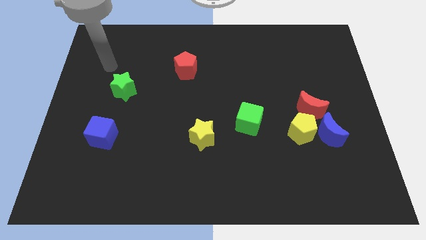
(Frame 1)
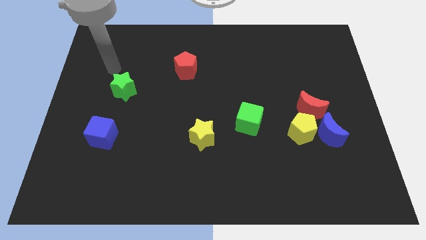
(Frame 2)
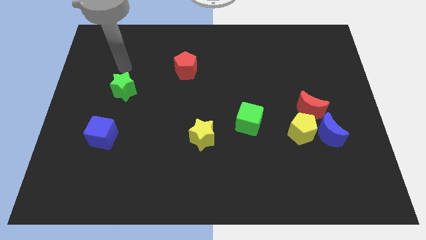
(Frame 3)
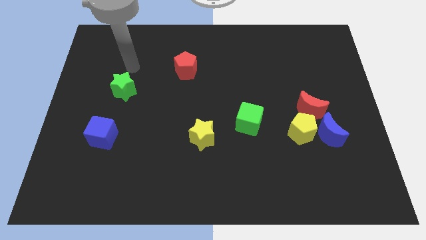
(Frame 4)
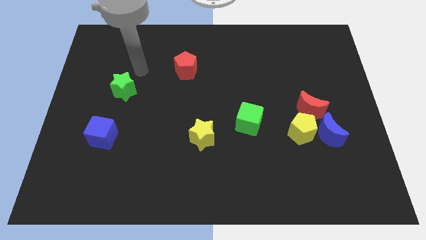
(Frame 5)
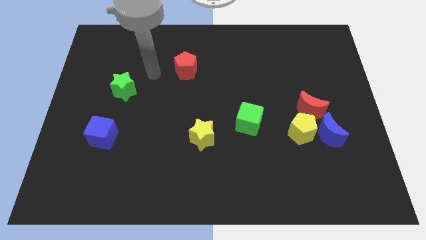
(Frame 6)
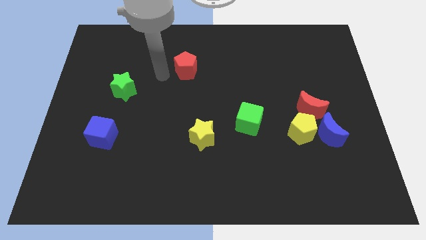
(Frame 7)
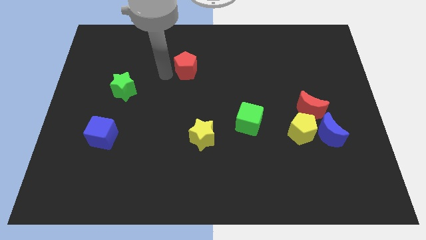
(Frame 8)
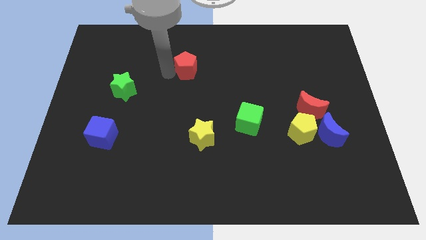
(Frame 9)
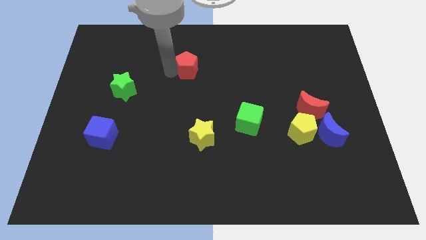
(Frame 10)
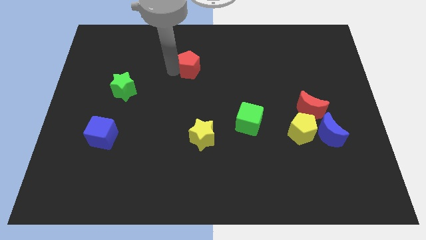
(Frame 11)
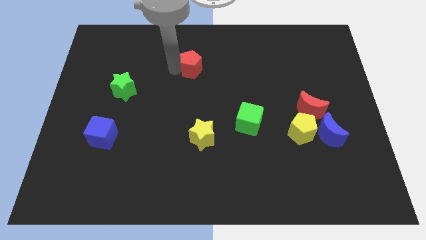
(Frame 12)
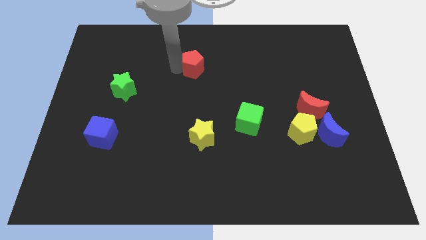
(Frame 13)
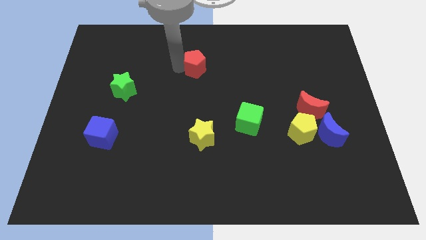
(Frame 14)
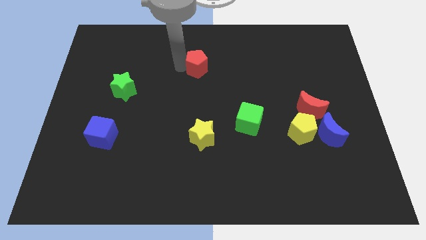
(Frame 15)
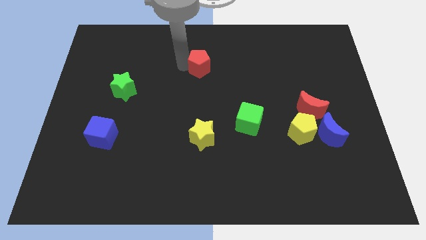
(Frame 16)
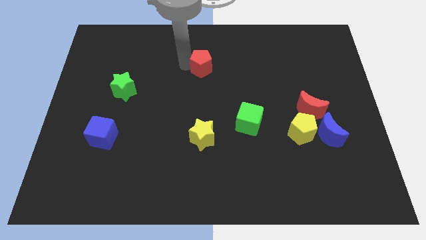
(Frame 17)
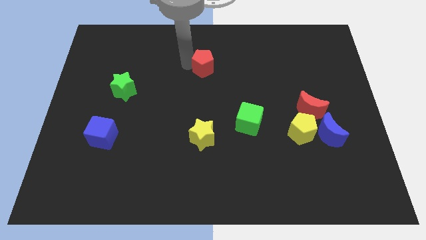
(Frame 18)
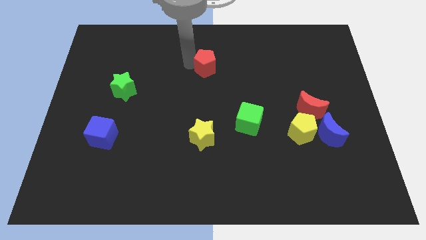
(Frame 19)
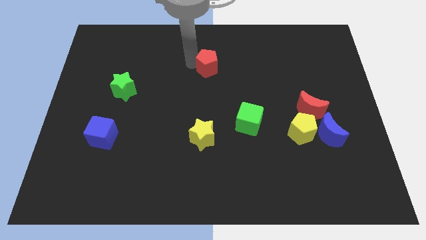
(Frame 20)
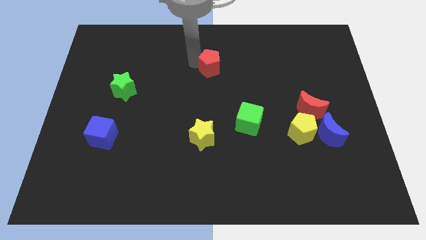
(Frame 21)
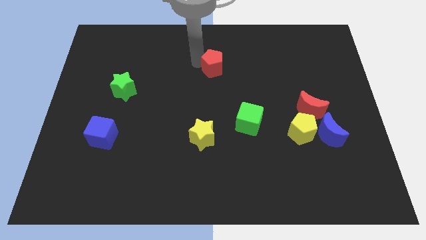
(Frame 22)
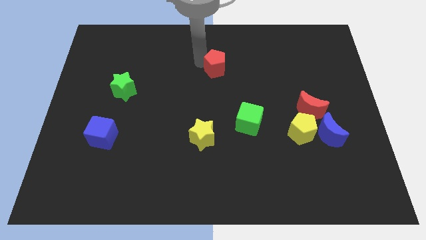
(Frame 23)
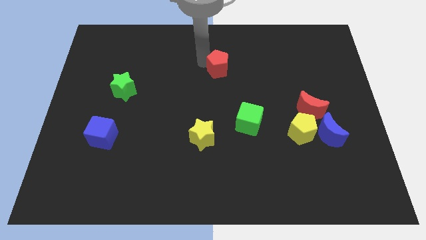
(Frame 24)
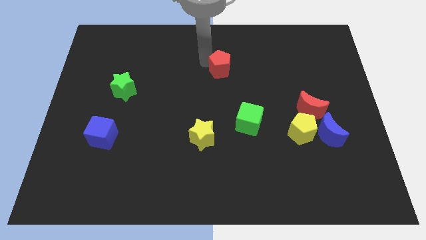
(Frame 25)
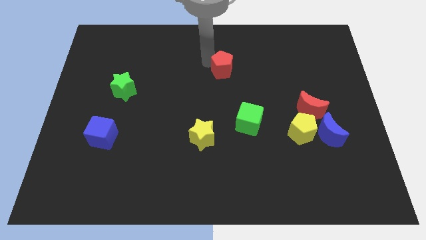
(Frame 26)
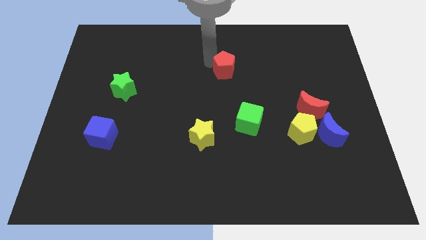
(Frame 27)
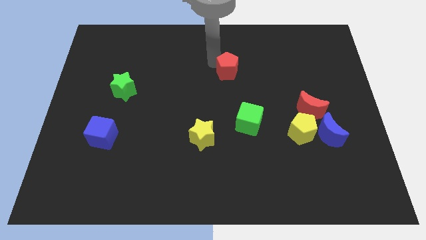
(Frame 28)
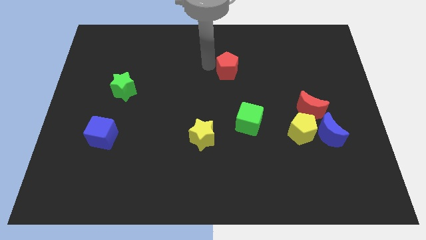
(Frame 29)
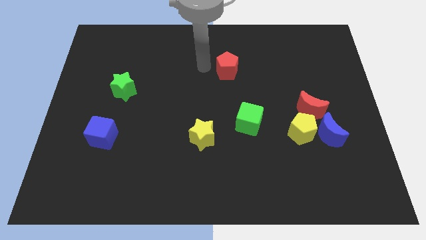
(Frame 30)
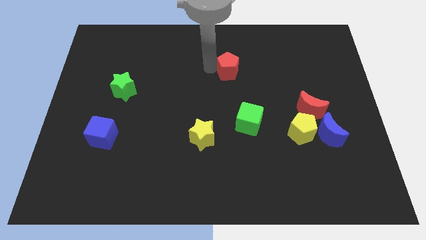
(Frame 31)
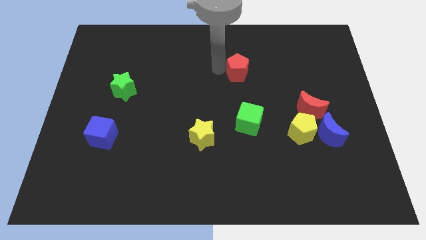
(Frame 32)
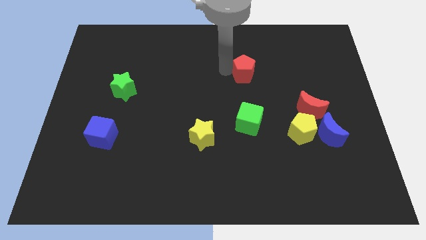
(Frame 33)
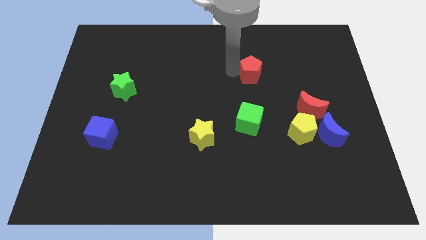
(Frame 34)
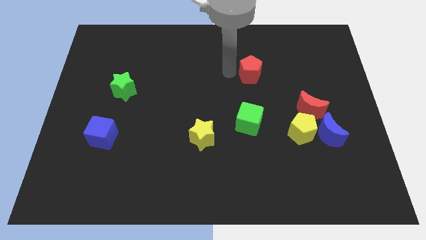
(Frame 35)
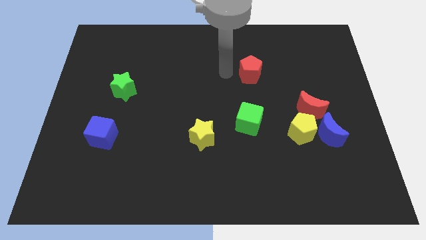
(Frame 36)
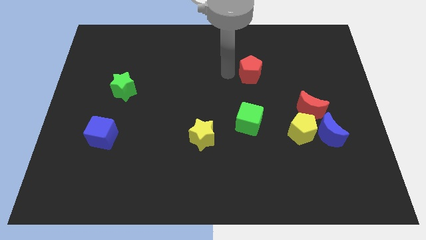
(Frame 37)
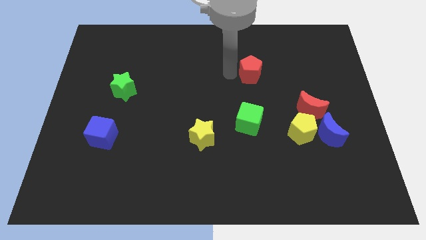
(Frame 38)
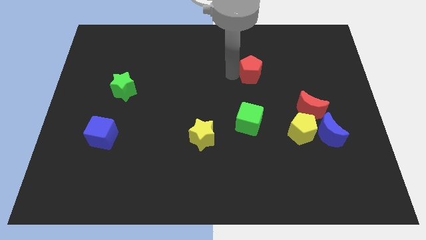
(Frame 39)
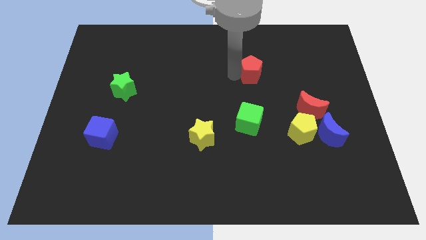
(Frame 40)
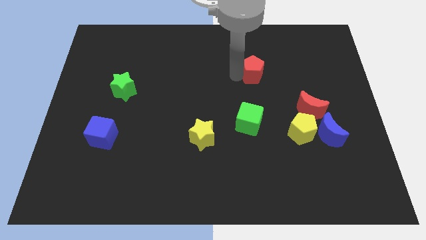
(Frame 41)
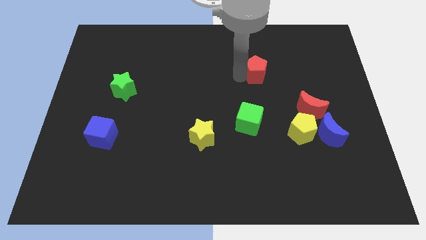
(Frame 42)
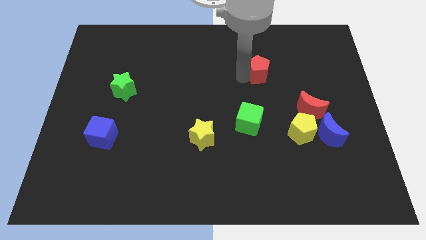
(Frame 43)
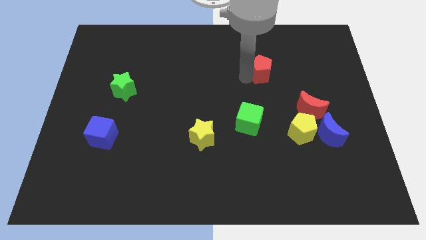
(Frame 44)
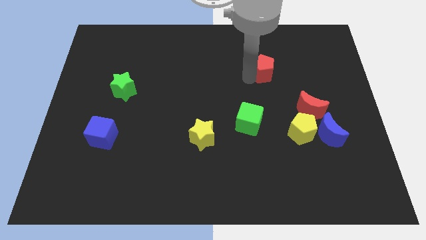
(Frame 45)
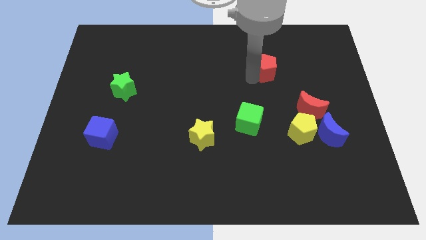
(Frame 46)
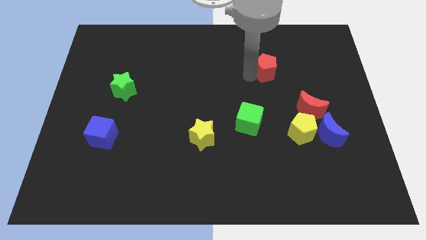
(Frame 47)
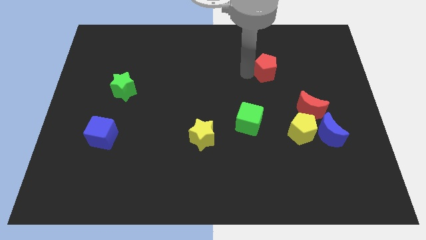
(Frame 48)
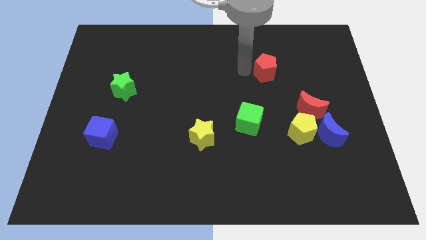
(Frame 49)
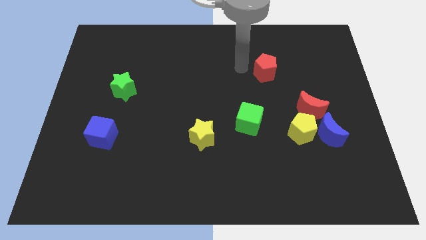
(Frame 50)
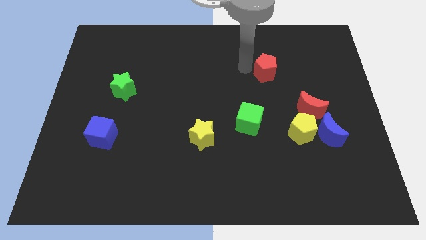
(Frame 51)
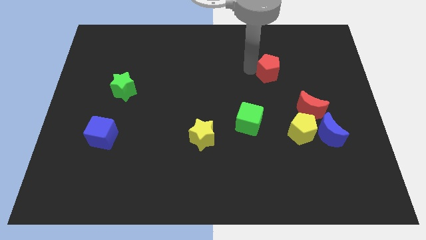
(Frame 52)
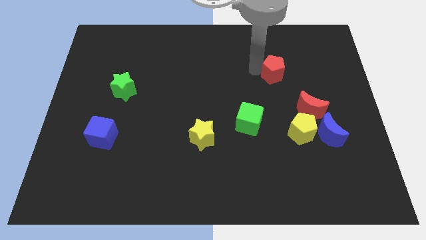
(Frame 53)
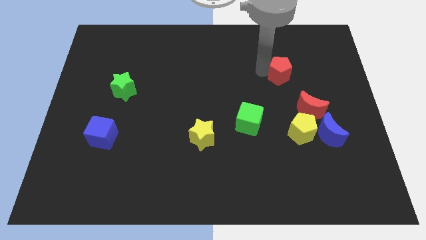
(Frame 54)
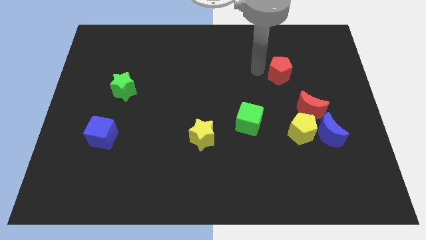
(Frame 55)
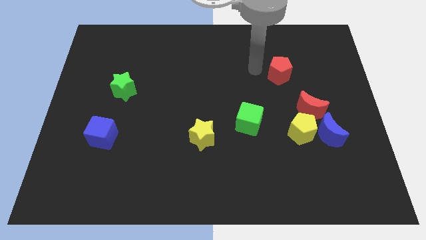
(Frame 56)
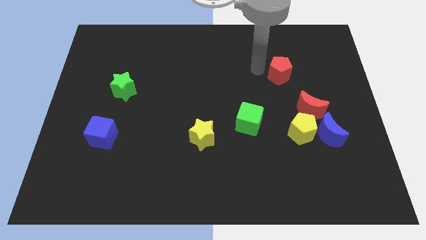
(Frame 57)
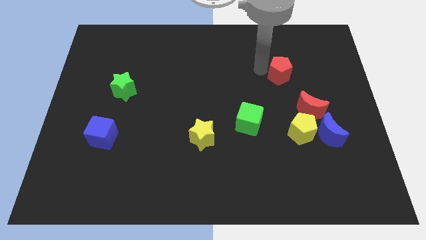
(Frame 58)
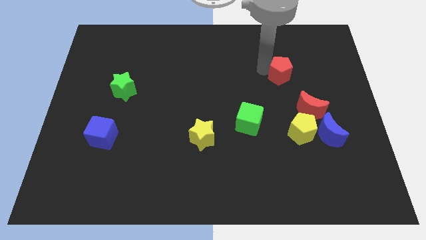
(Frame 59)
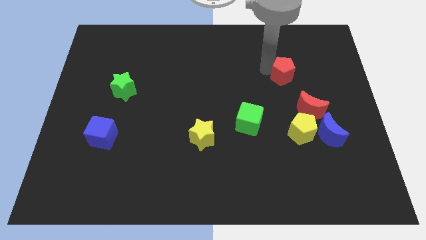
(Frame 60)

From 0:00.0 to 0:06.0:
move the red pentagon to the top of the red moon

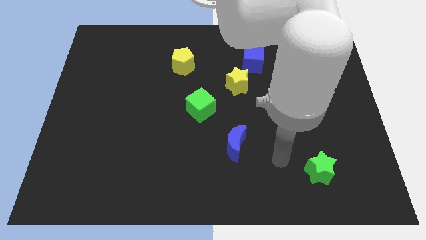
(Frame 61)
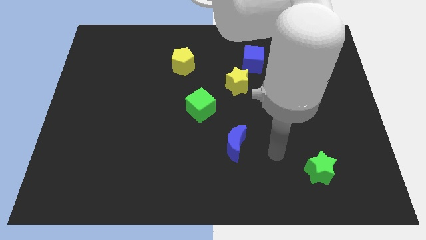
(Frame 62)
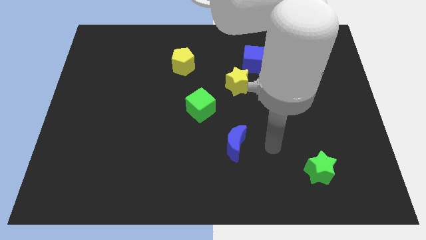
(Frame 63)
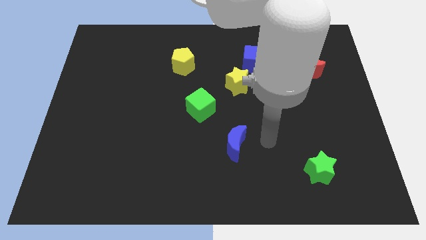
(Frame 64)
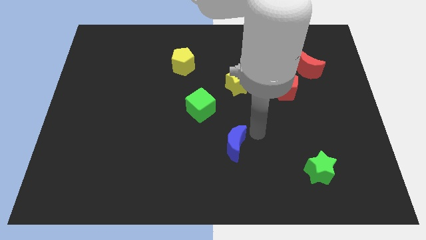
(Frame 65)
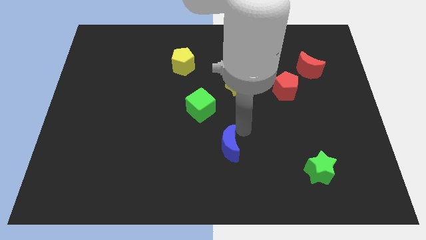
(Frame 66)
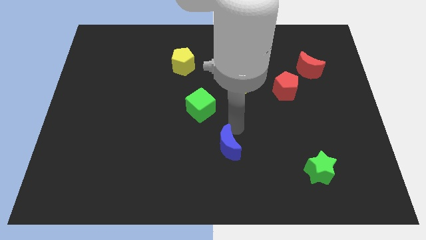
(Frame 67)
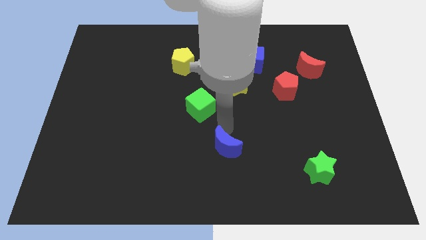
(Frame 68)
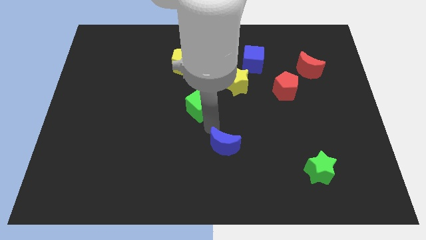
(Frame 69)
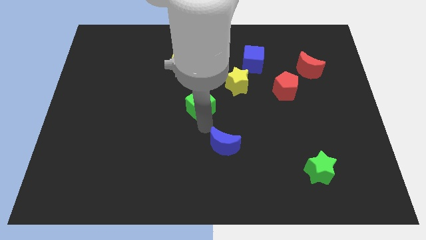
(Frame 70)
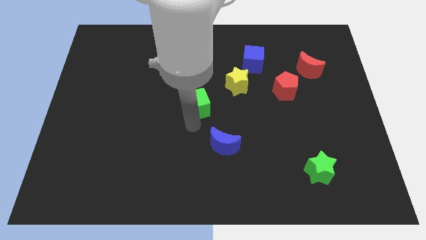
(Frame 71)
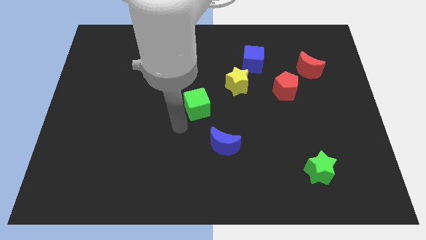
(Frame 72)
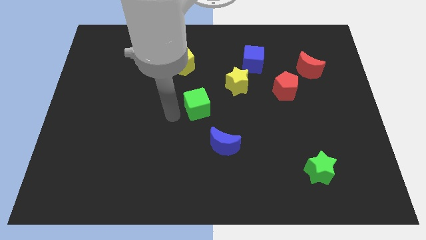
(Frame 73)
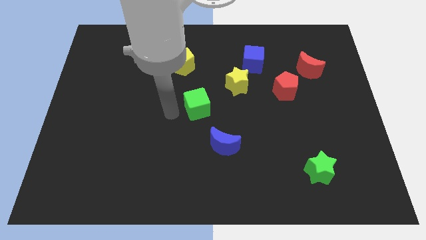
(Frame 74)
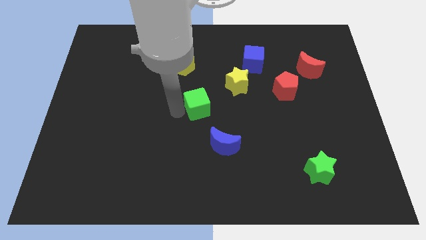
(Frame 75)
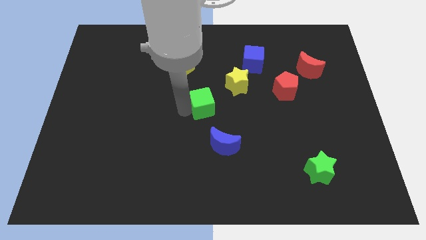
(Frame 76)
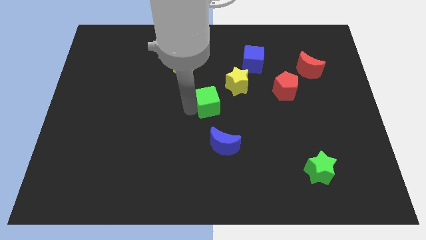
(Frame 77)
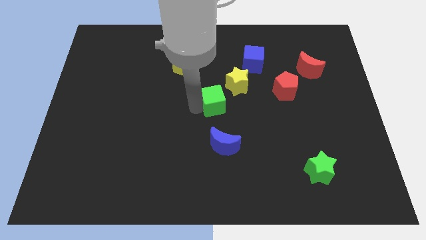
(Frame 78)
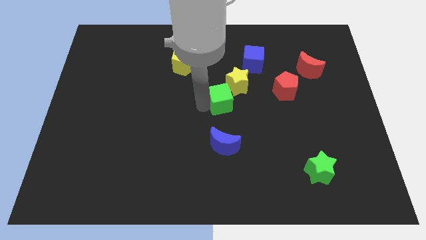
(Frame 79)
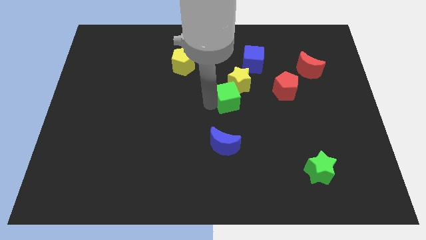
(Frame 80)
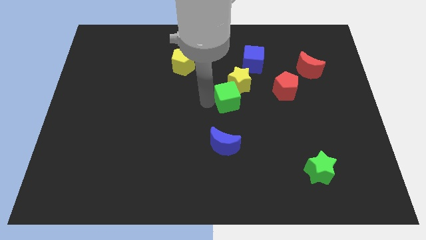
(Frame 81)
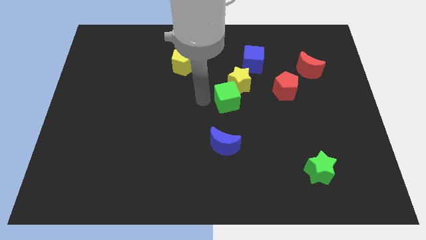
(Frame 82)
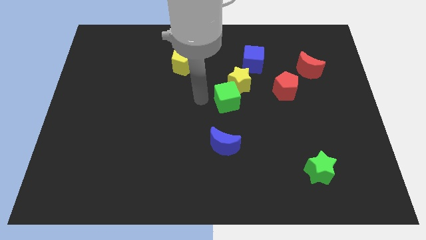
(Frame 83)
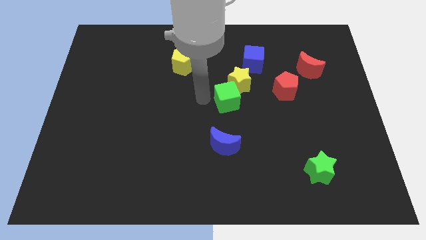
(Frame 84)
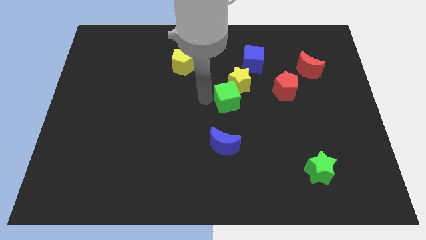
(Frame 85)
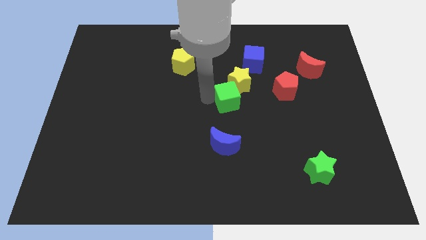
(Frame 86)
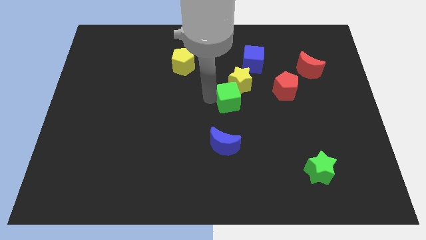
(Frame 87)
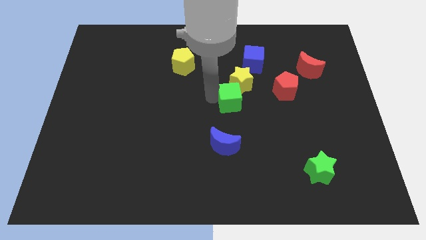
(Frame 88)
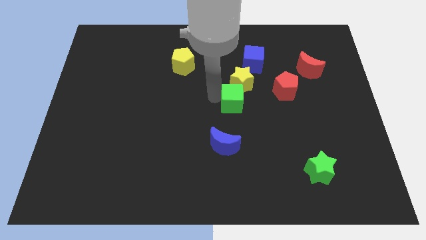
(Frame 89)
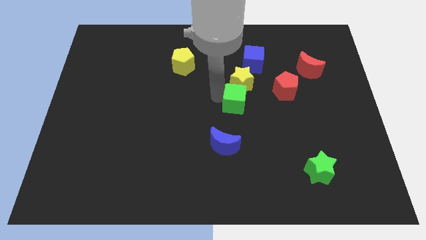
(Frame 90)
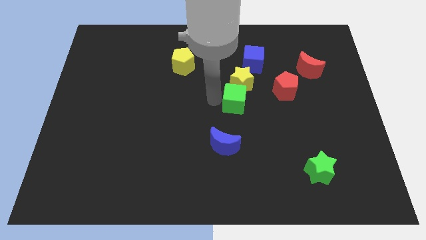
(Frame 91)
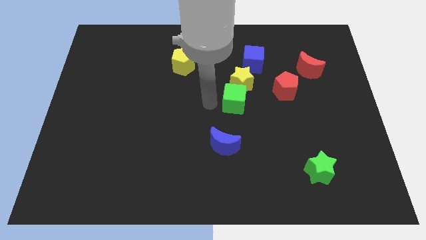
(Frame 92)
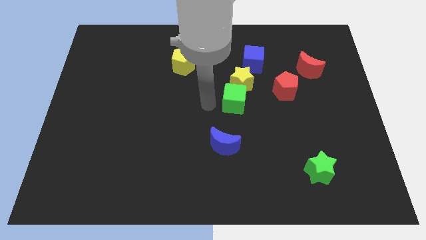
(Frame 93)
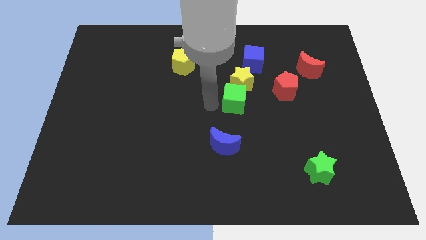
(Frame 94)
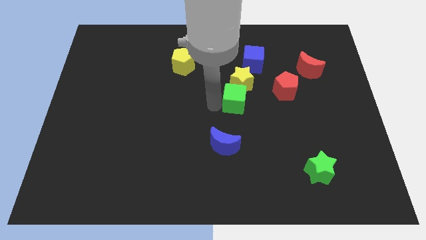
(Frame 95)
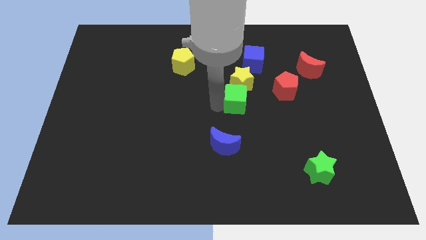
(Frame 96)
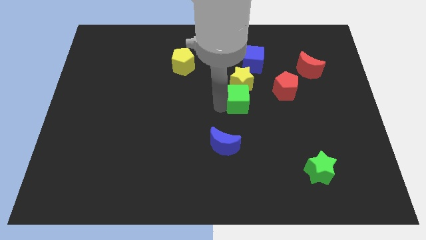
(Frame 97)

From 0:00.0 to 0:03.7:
slide the green cube diagonally down and to the right of the yellow star
